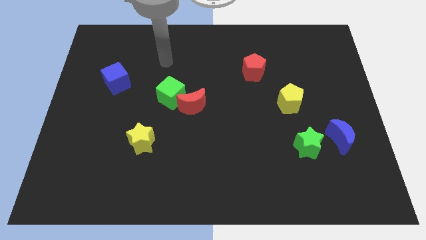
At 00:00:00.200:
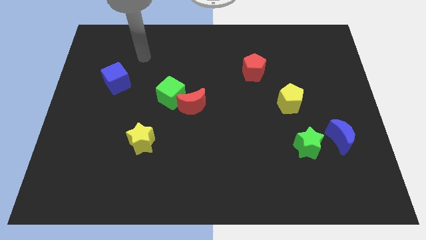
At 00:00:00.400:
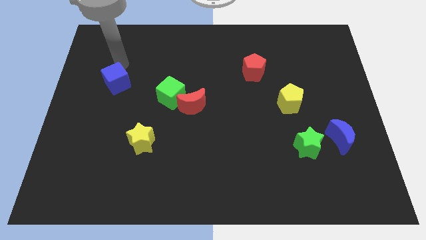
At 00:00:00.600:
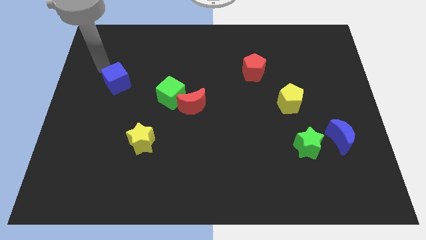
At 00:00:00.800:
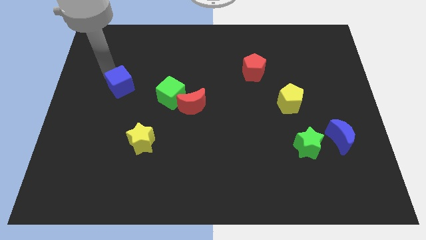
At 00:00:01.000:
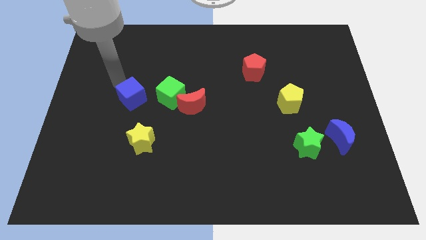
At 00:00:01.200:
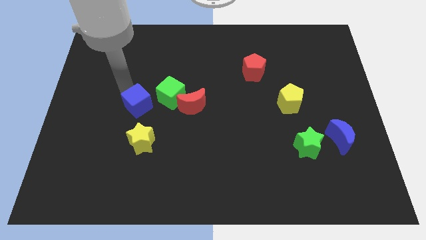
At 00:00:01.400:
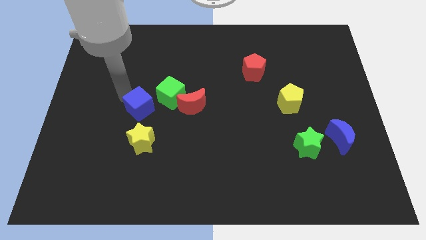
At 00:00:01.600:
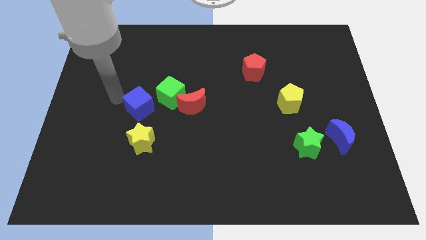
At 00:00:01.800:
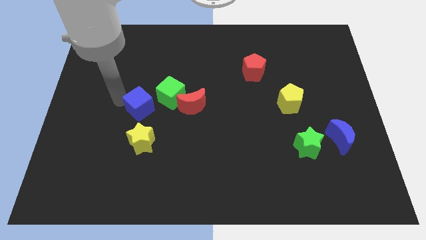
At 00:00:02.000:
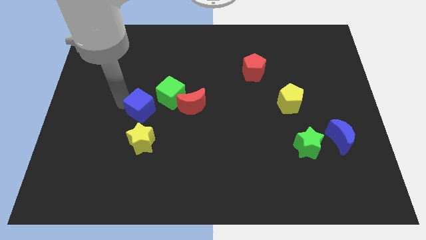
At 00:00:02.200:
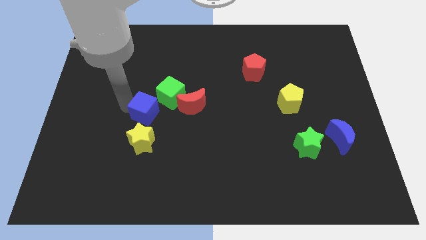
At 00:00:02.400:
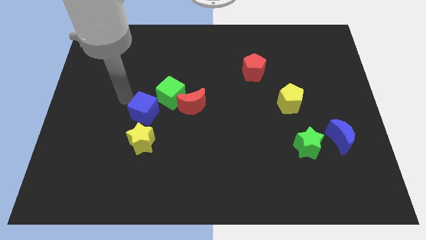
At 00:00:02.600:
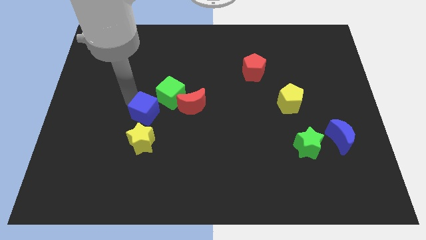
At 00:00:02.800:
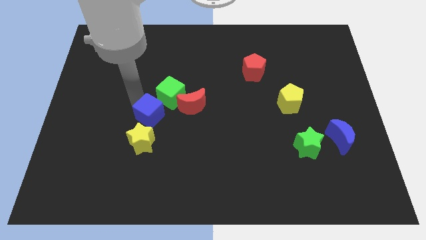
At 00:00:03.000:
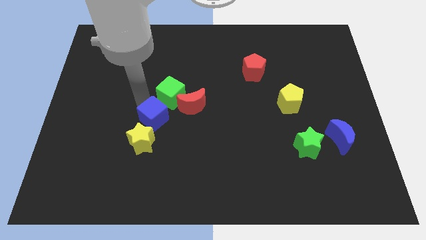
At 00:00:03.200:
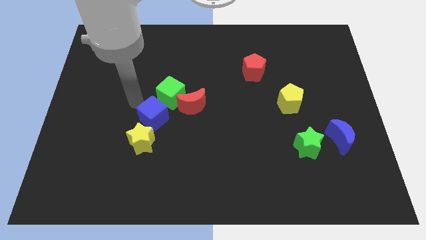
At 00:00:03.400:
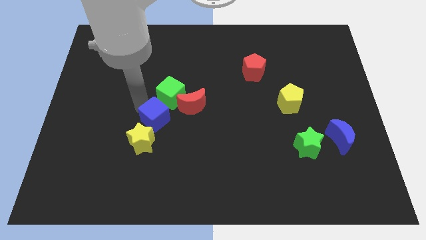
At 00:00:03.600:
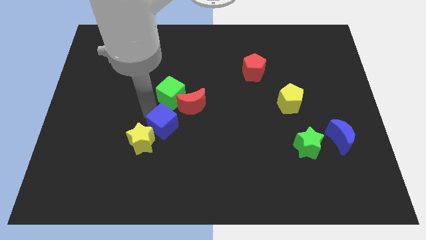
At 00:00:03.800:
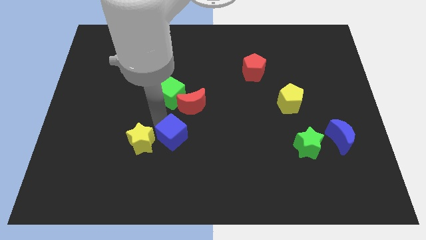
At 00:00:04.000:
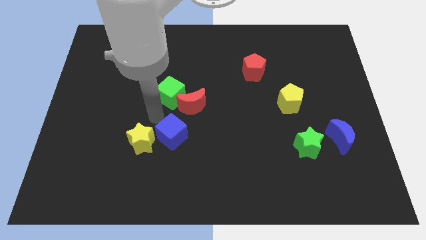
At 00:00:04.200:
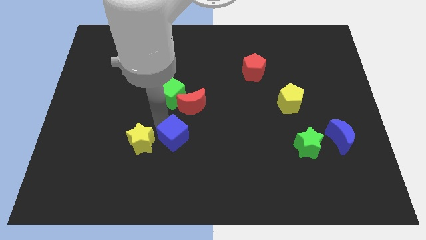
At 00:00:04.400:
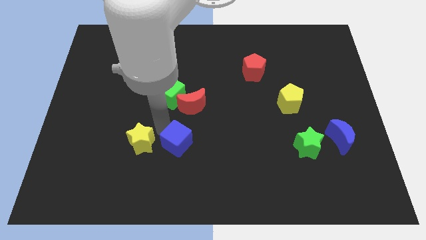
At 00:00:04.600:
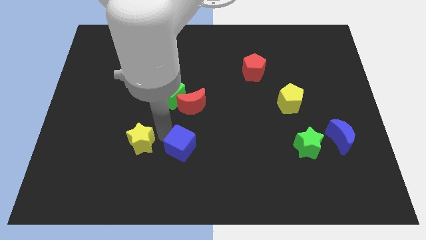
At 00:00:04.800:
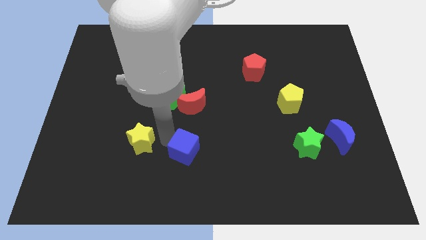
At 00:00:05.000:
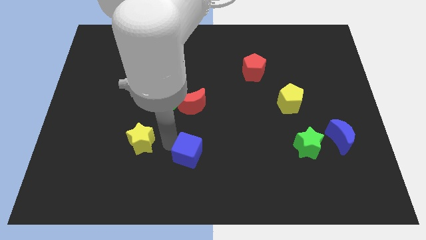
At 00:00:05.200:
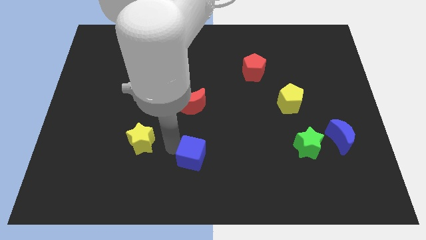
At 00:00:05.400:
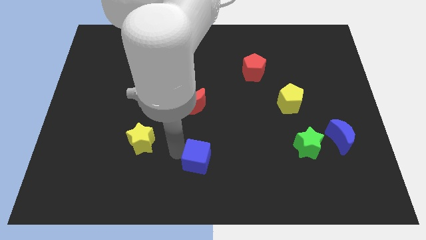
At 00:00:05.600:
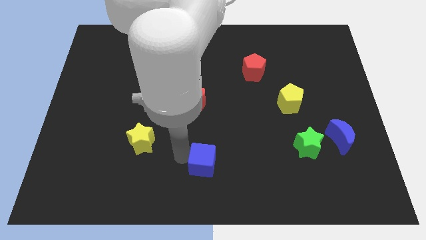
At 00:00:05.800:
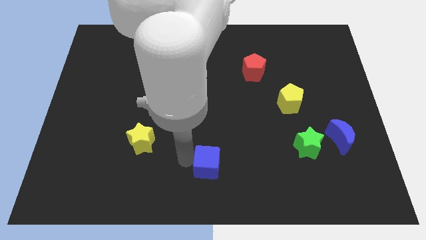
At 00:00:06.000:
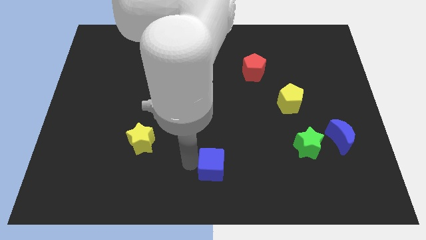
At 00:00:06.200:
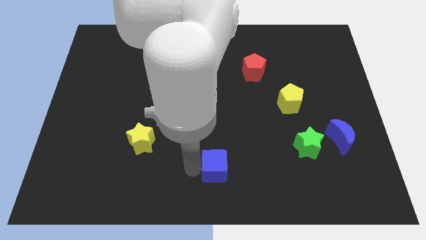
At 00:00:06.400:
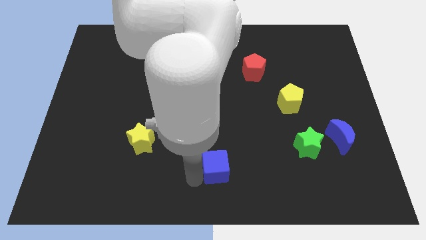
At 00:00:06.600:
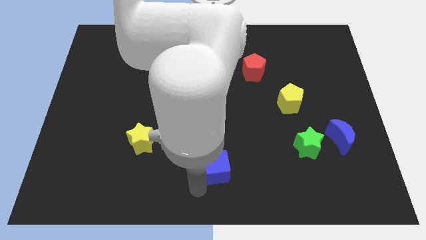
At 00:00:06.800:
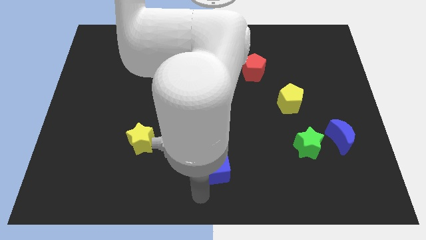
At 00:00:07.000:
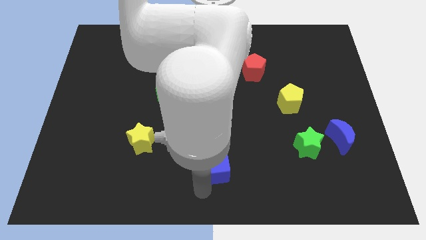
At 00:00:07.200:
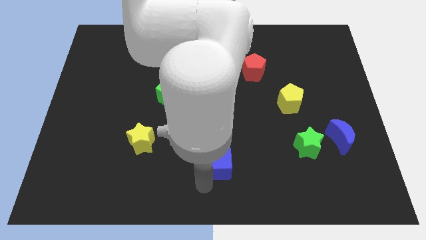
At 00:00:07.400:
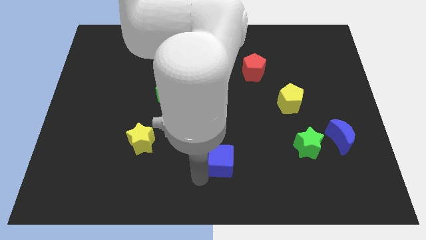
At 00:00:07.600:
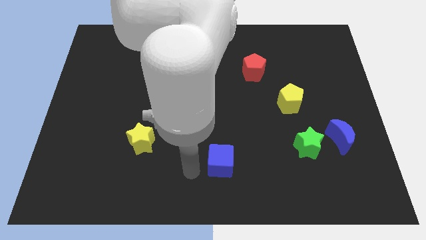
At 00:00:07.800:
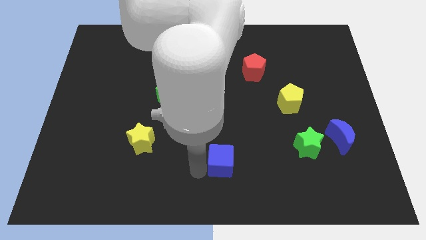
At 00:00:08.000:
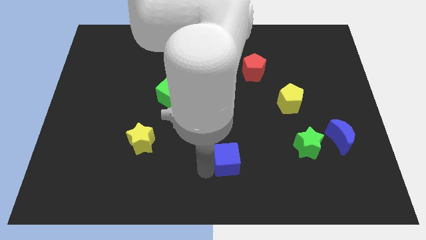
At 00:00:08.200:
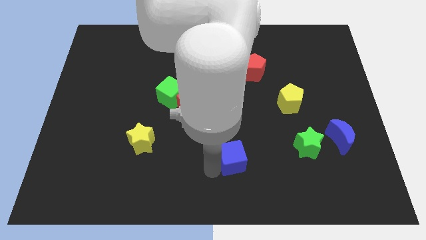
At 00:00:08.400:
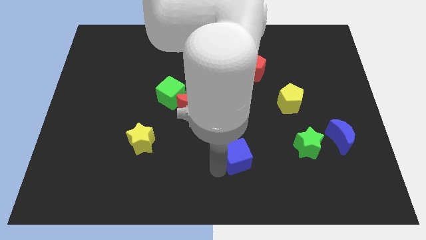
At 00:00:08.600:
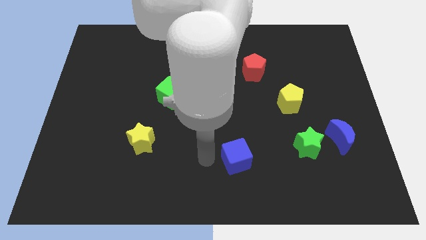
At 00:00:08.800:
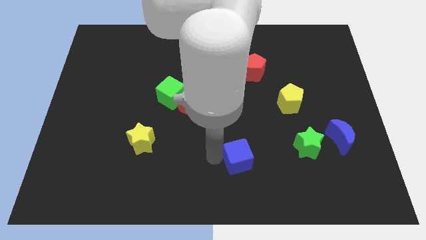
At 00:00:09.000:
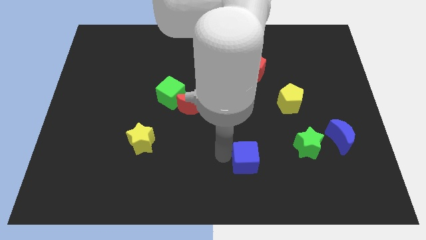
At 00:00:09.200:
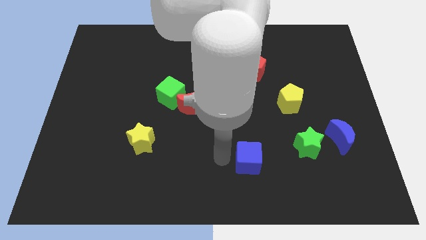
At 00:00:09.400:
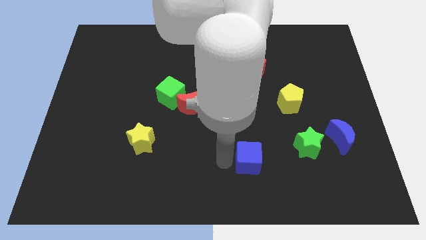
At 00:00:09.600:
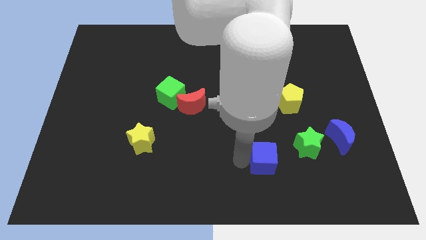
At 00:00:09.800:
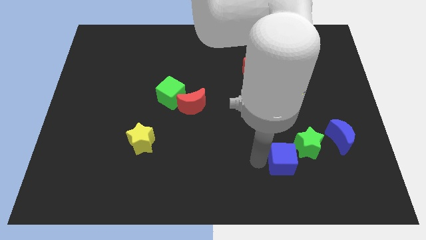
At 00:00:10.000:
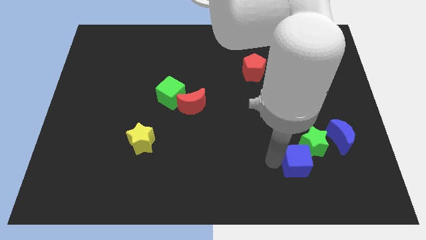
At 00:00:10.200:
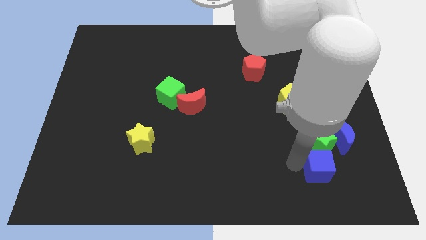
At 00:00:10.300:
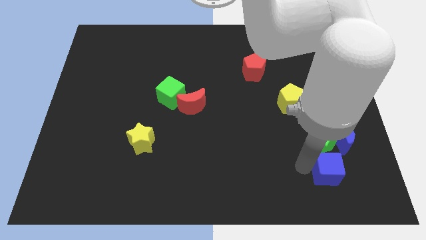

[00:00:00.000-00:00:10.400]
slide the blue cube to the bottom right side of the green star
